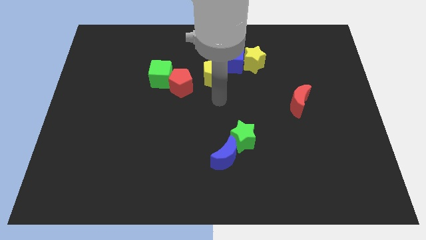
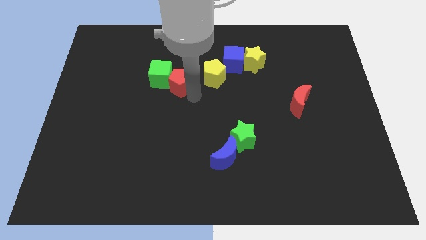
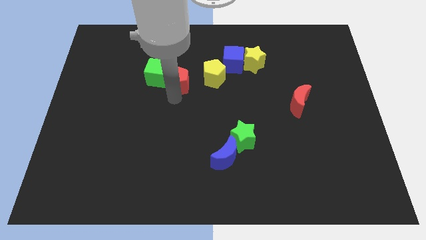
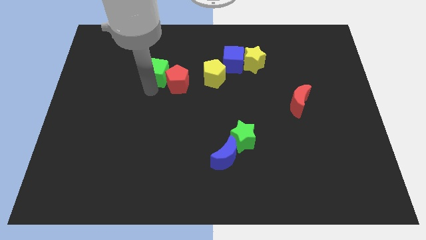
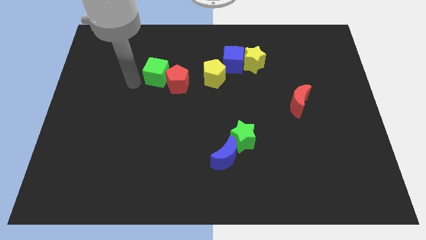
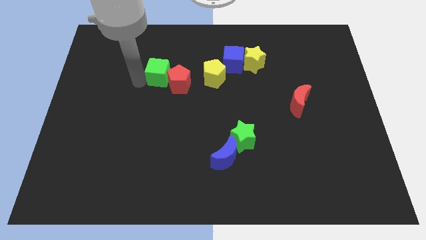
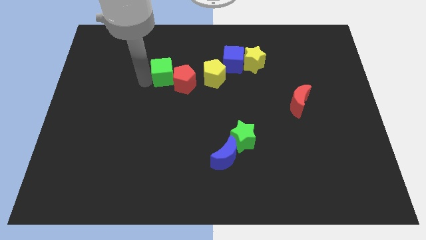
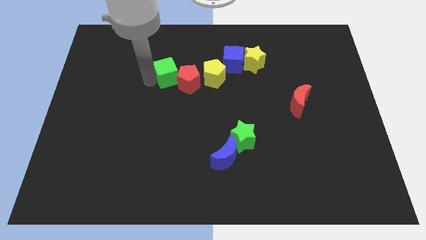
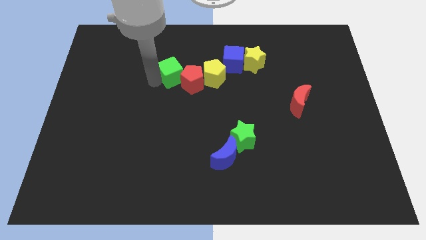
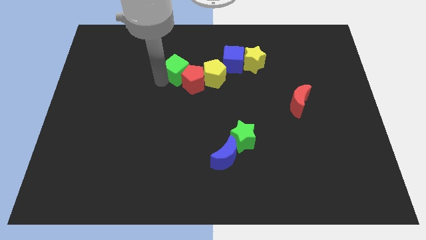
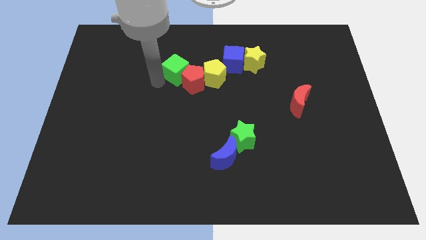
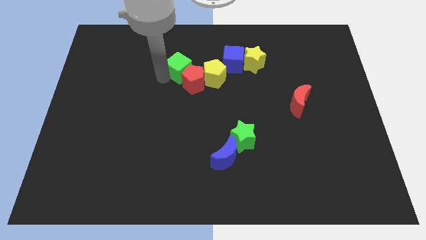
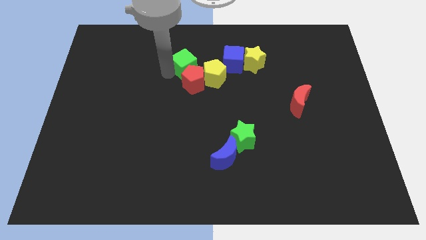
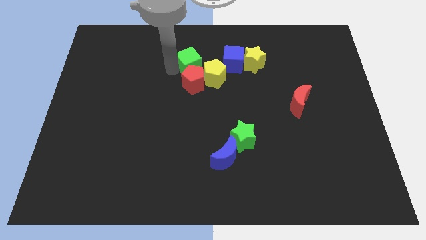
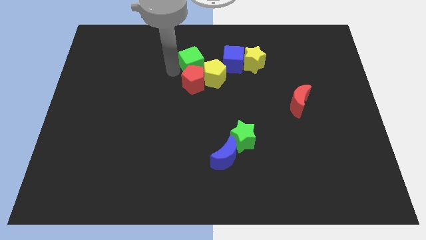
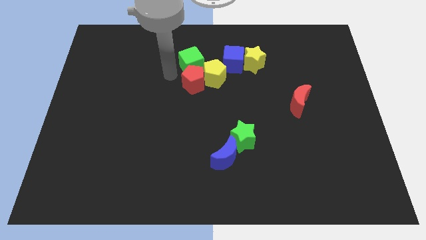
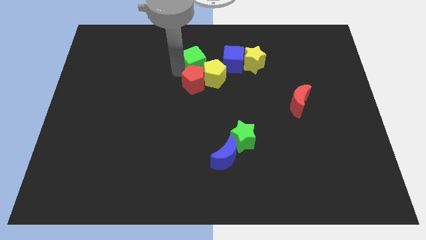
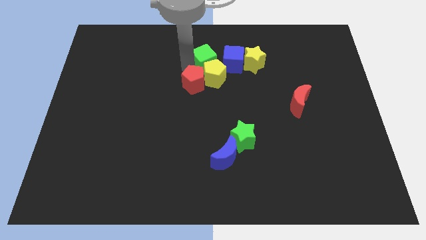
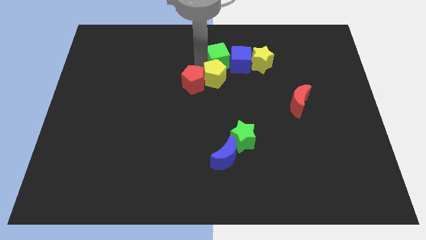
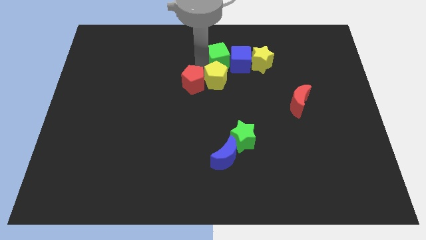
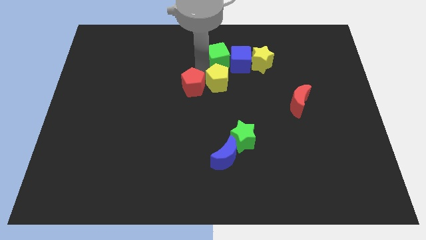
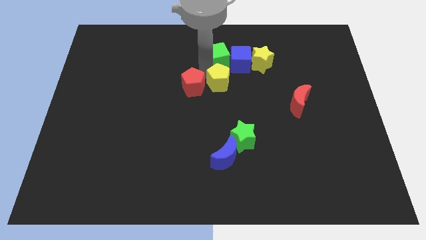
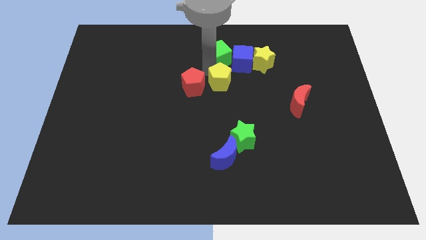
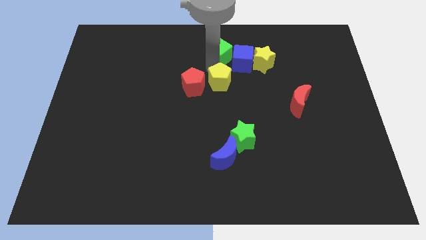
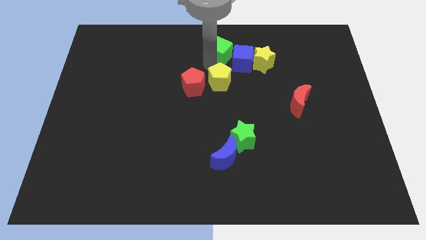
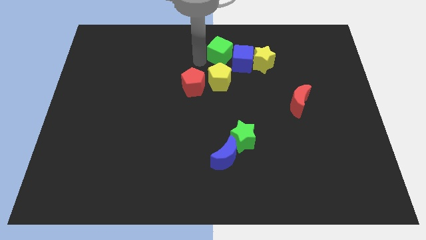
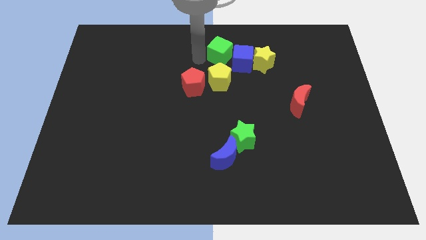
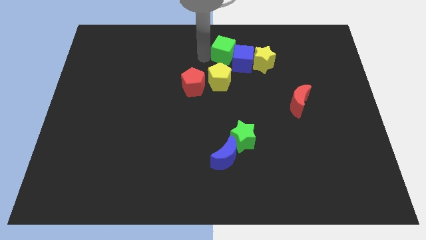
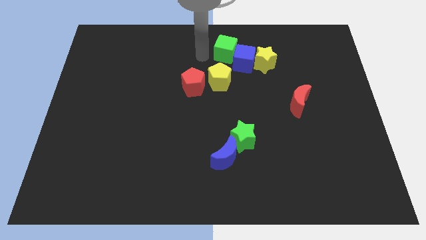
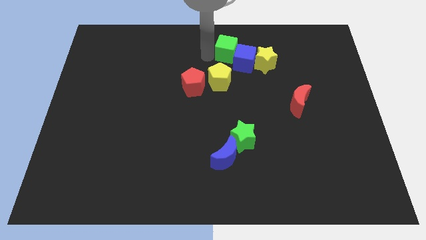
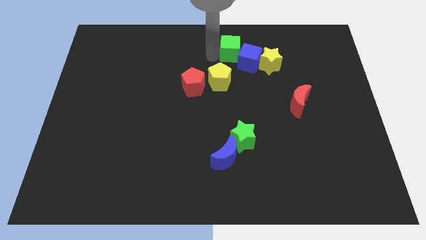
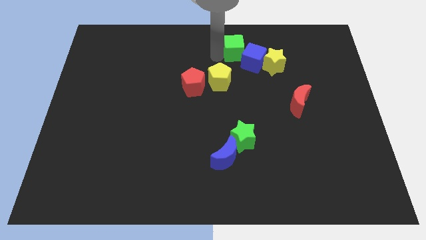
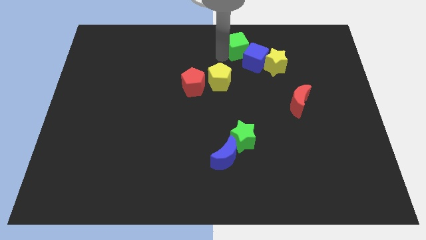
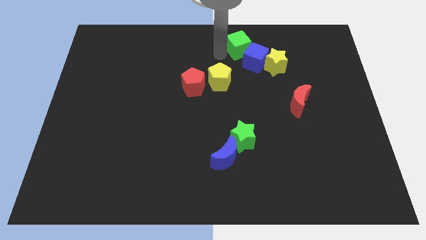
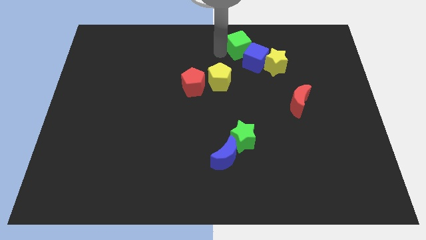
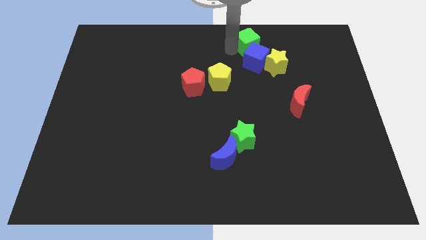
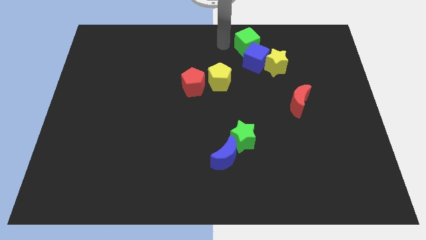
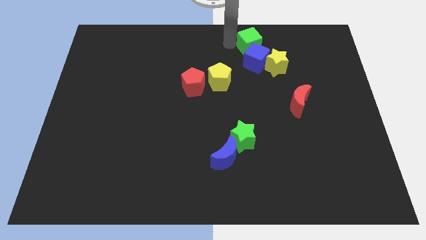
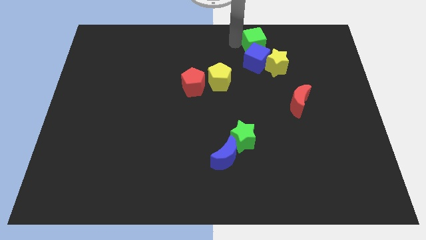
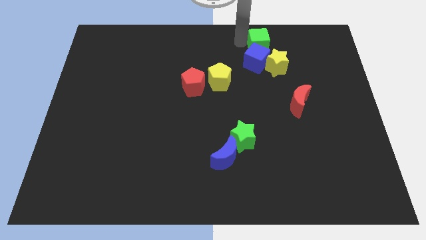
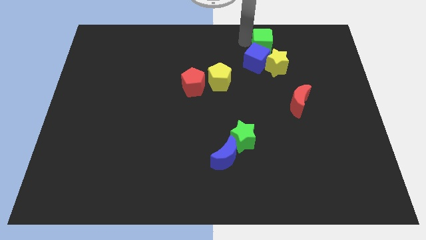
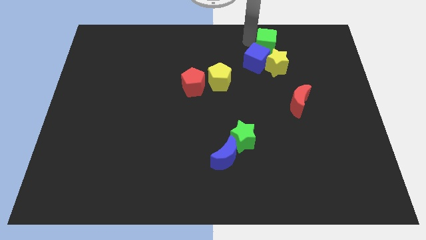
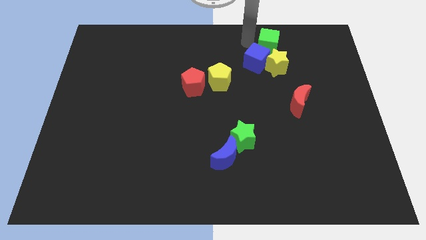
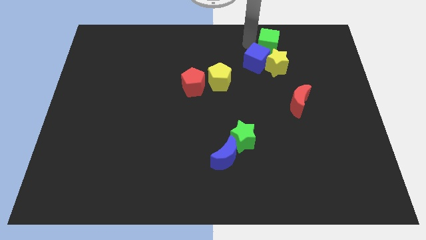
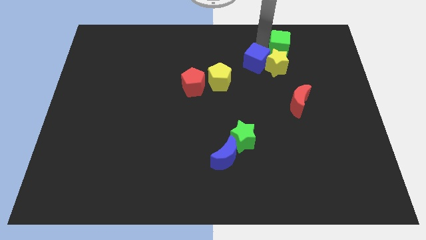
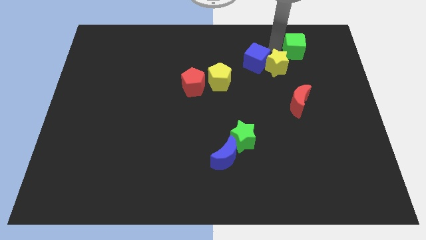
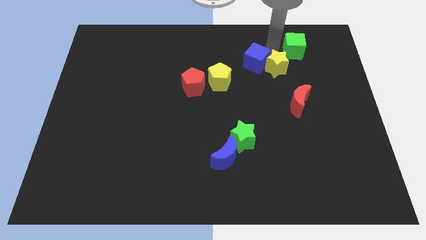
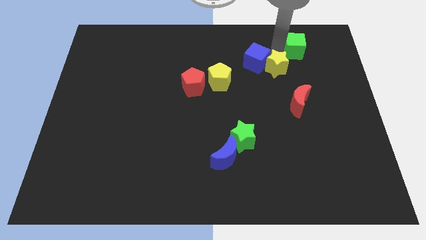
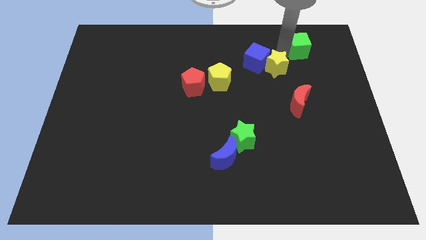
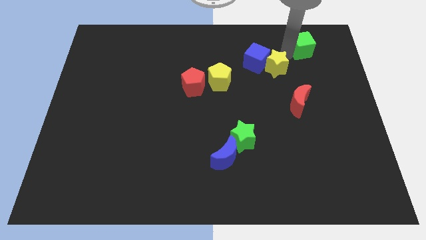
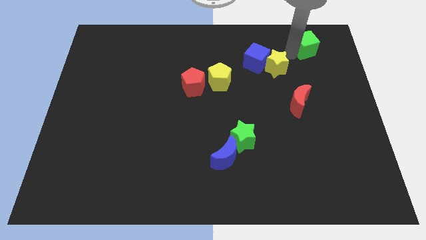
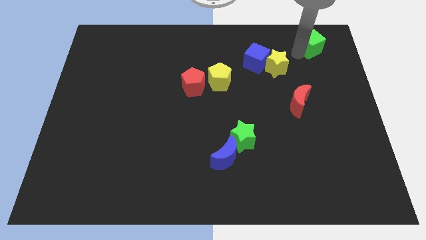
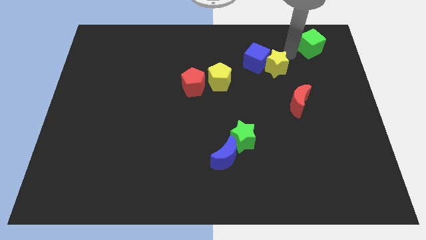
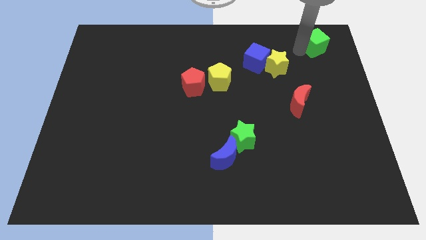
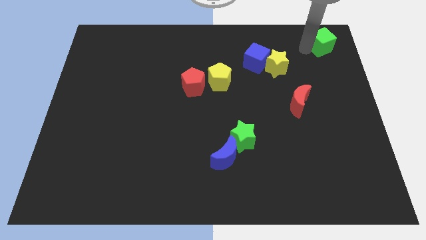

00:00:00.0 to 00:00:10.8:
slide the green cube to the top right of the board

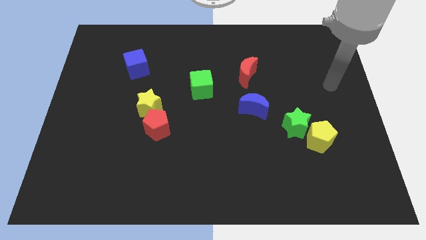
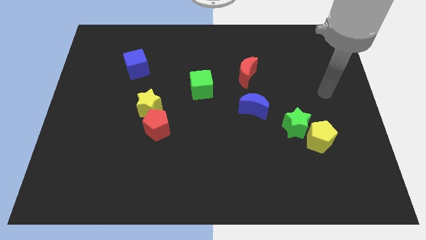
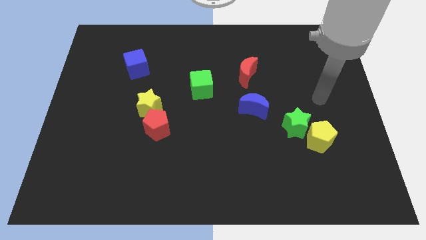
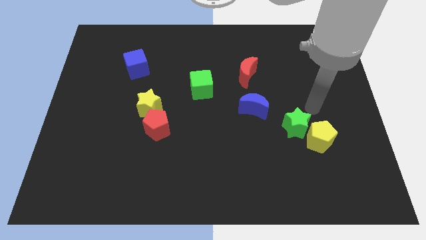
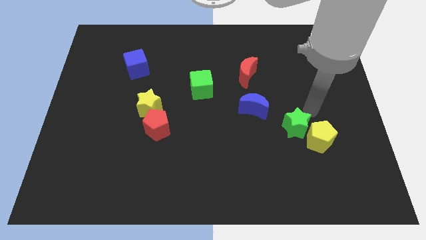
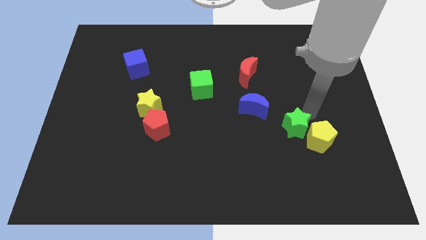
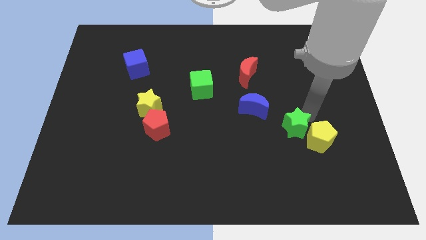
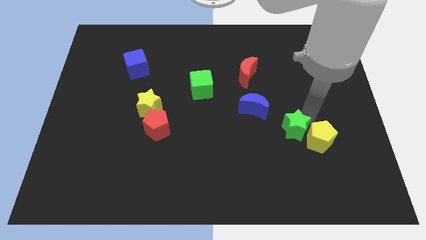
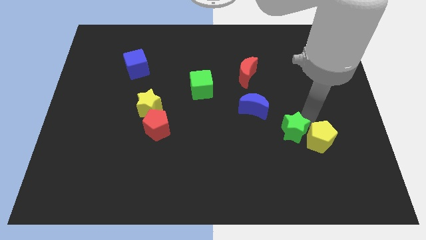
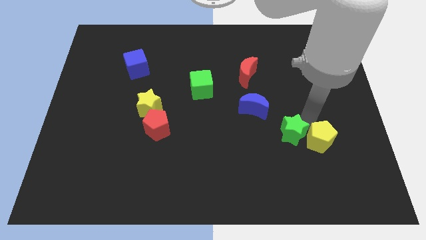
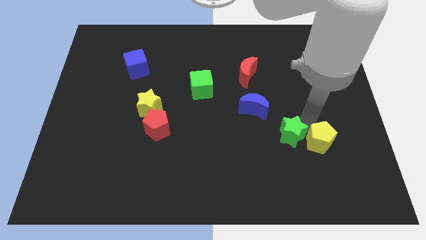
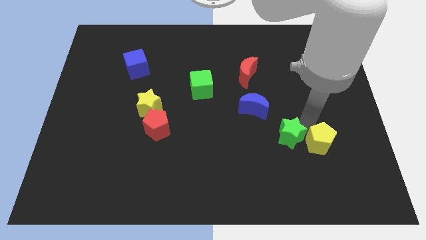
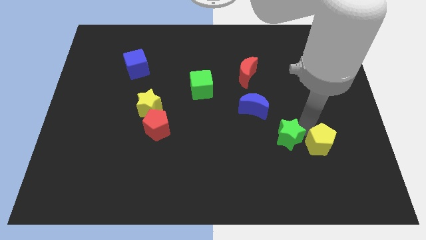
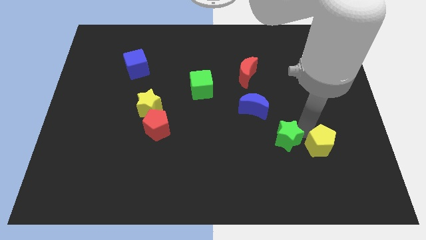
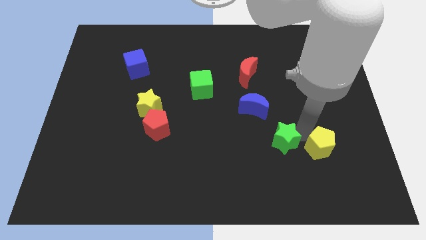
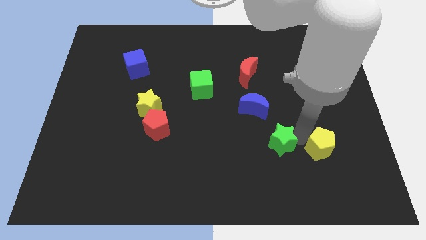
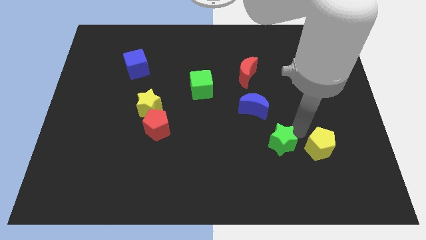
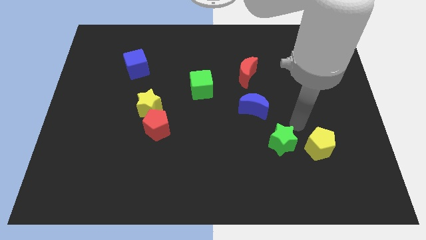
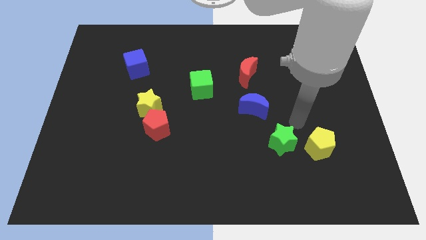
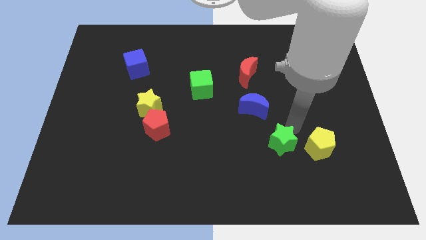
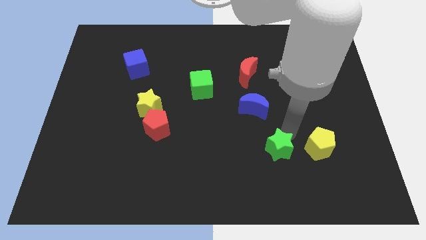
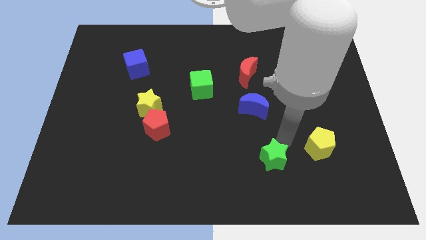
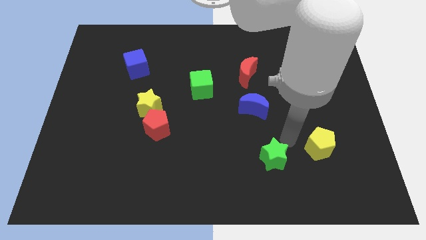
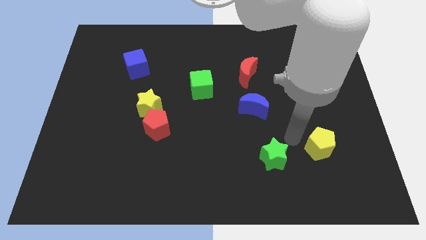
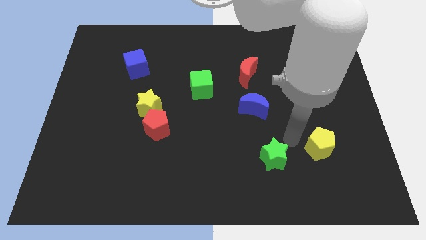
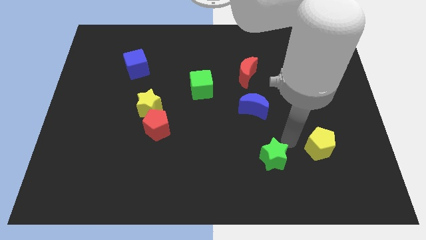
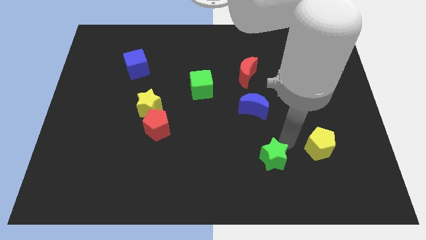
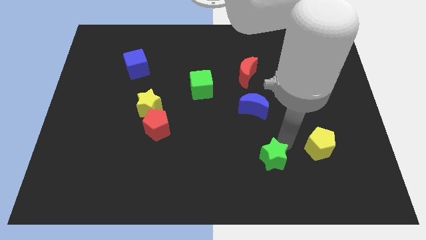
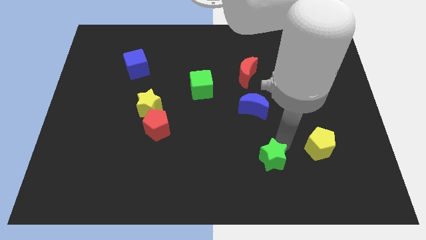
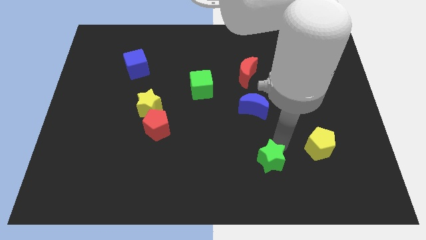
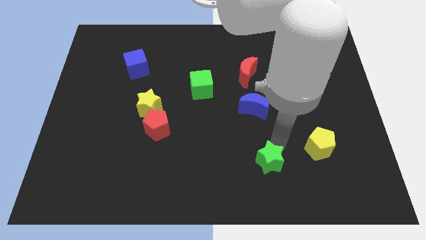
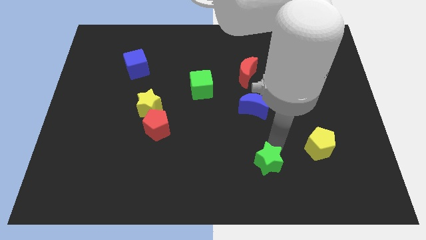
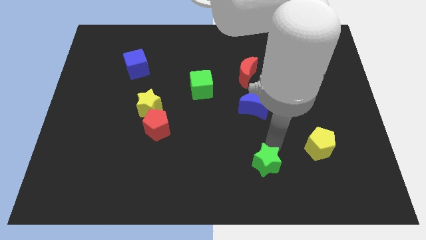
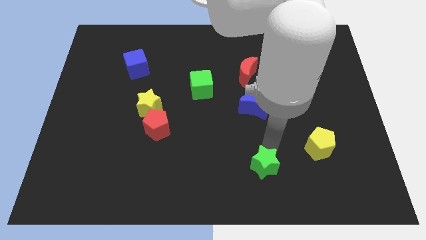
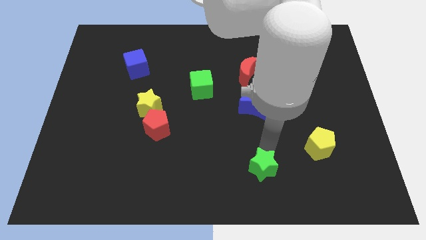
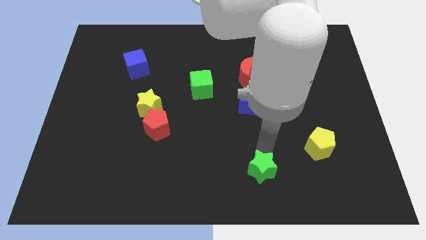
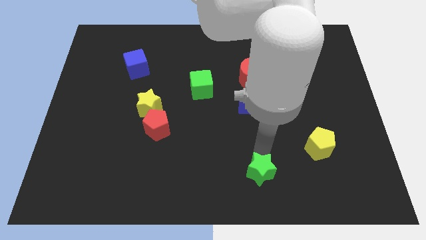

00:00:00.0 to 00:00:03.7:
move the green star to the bottom side
